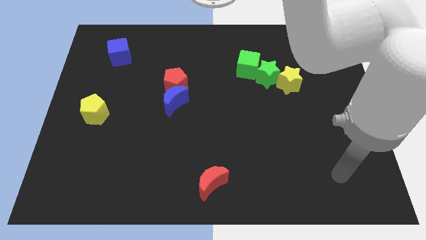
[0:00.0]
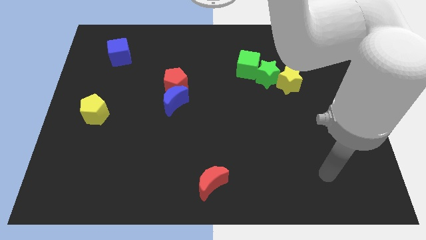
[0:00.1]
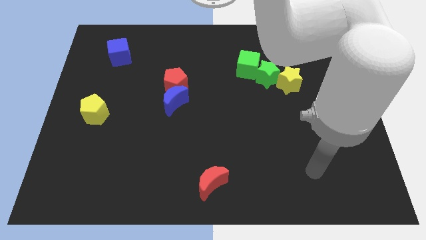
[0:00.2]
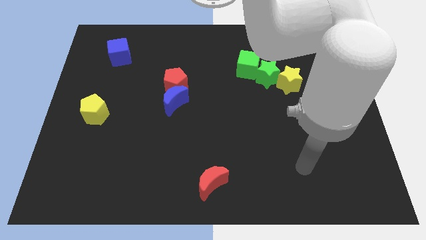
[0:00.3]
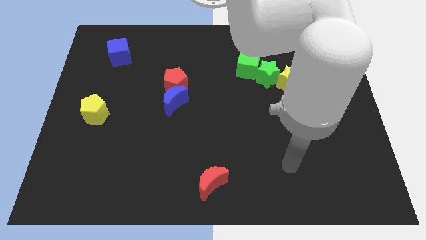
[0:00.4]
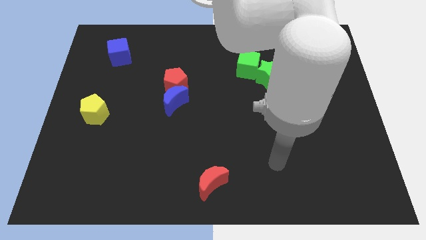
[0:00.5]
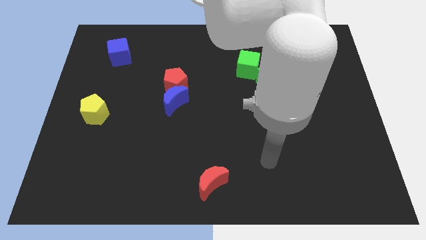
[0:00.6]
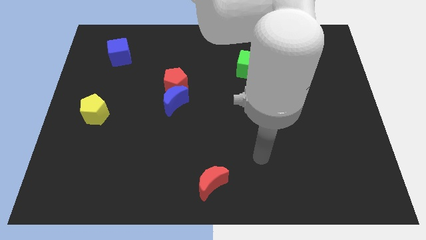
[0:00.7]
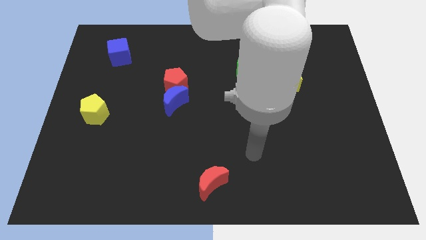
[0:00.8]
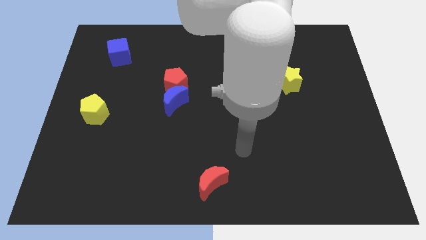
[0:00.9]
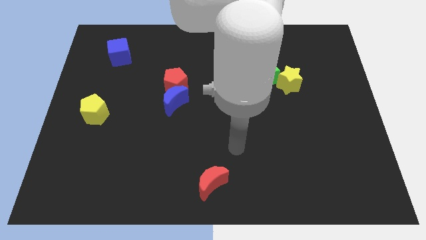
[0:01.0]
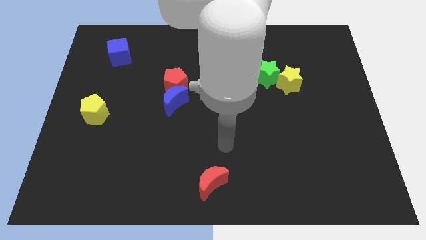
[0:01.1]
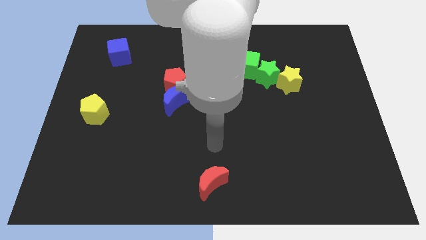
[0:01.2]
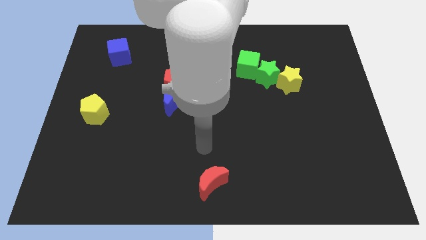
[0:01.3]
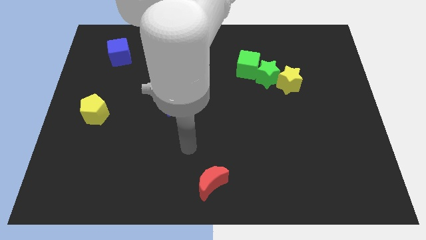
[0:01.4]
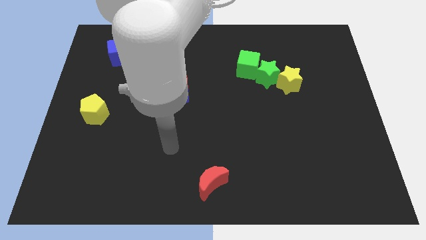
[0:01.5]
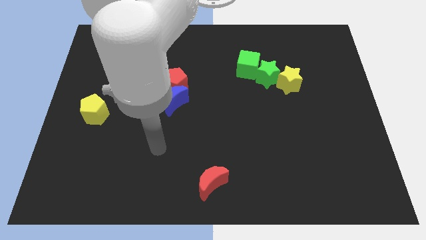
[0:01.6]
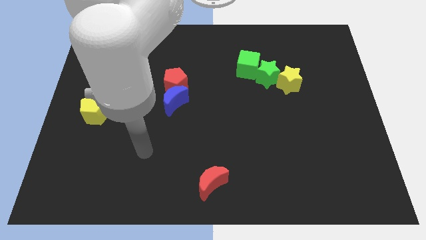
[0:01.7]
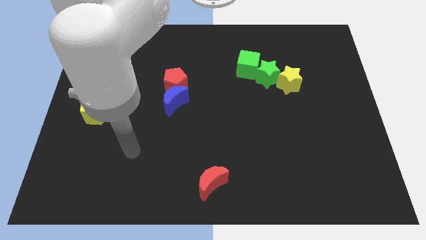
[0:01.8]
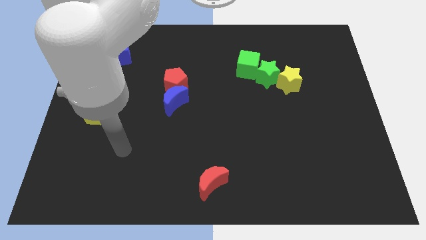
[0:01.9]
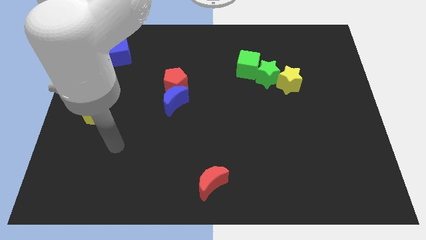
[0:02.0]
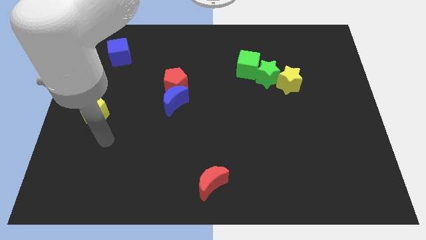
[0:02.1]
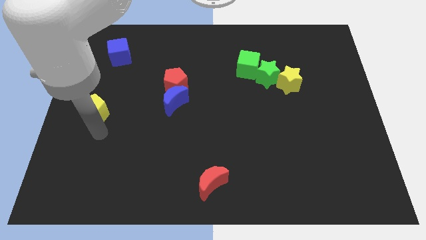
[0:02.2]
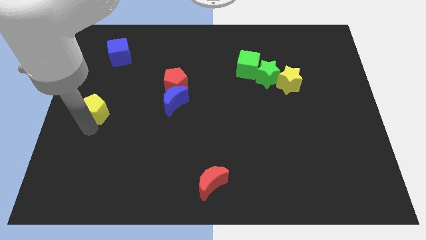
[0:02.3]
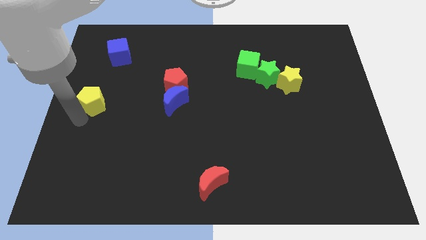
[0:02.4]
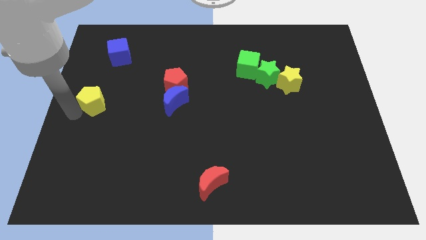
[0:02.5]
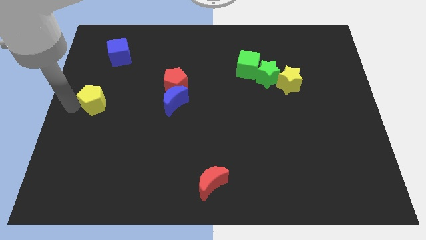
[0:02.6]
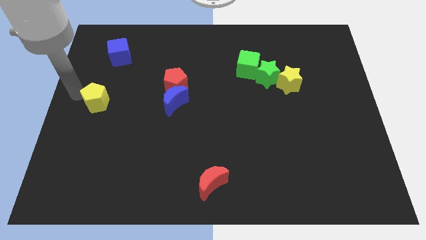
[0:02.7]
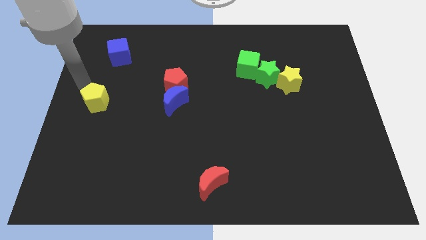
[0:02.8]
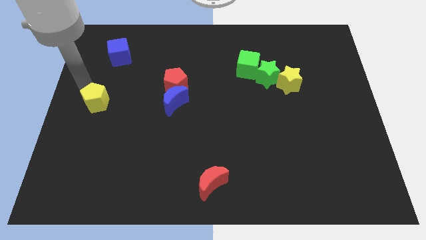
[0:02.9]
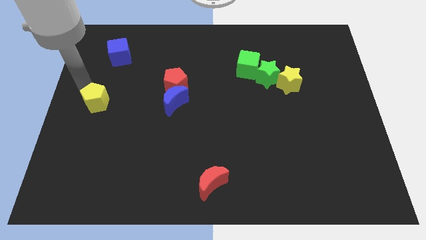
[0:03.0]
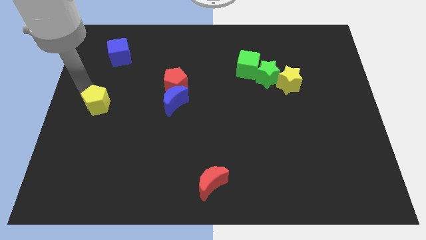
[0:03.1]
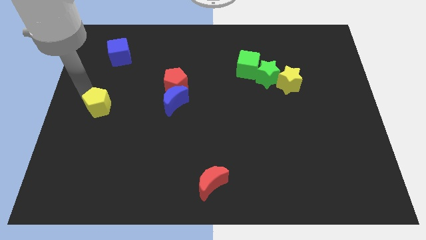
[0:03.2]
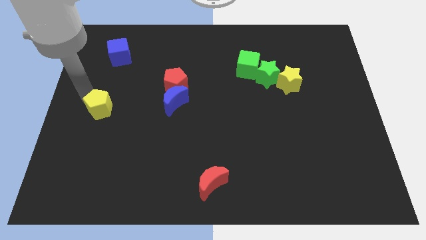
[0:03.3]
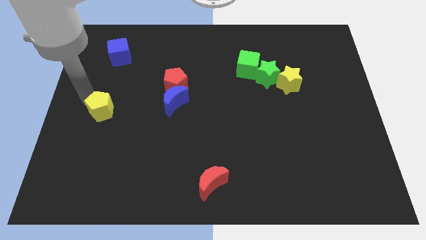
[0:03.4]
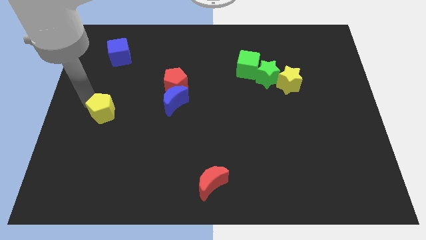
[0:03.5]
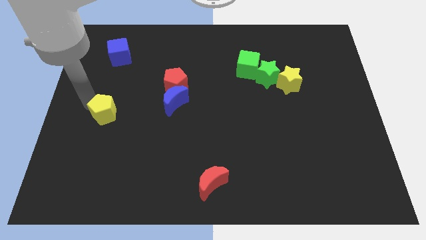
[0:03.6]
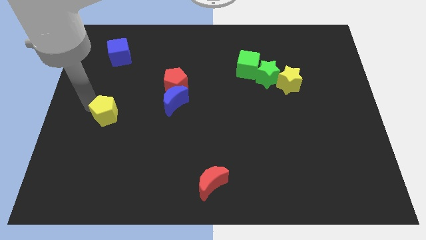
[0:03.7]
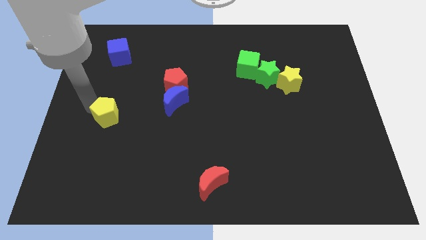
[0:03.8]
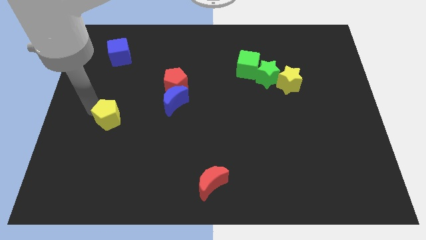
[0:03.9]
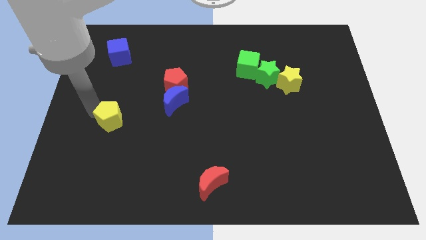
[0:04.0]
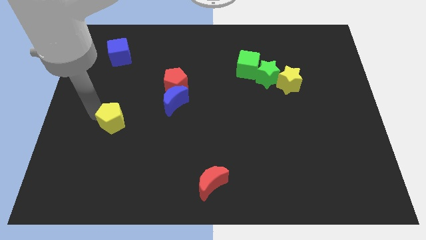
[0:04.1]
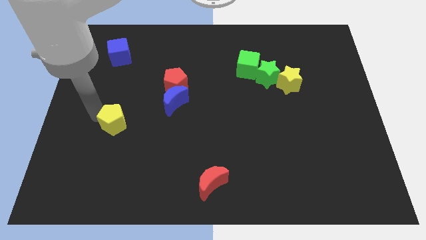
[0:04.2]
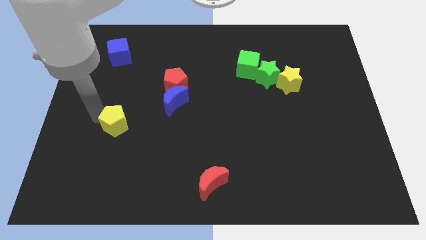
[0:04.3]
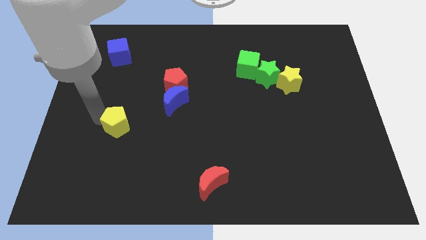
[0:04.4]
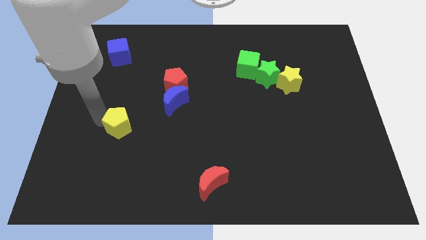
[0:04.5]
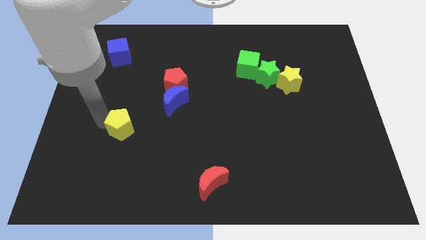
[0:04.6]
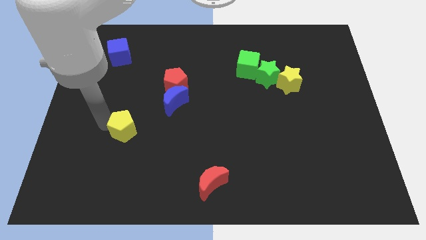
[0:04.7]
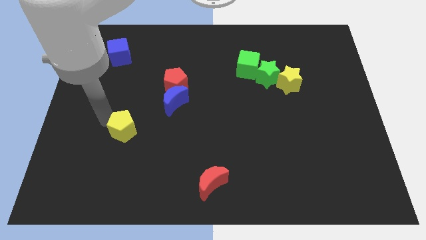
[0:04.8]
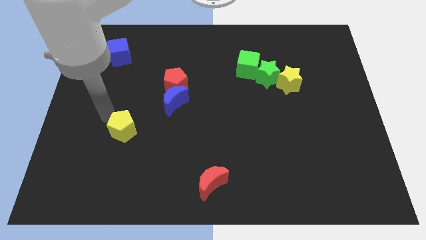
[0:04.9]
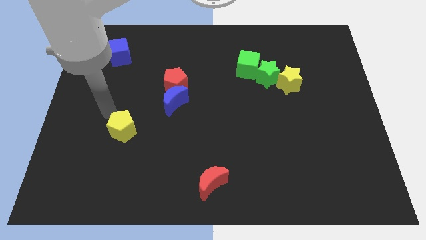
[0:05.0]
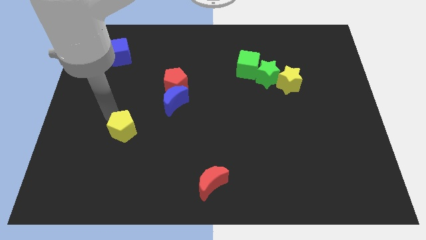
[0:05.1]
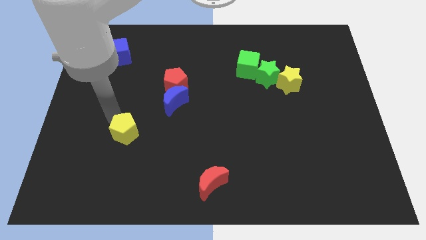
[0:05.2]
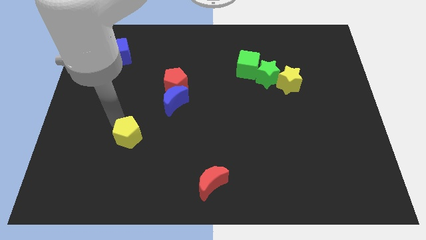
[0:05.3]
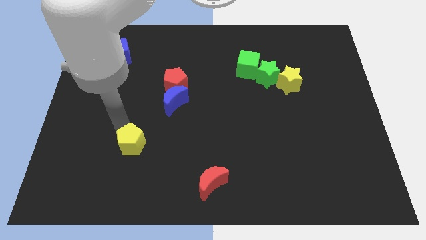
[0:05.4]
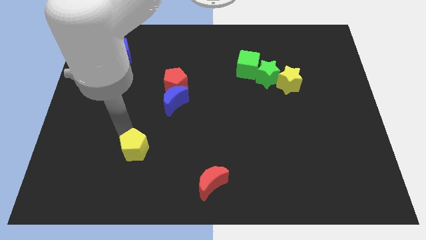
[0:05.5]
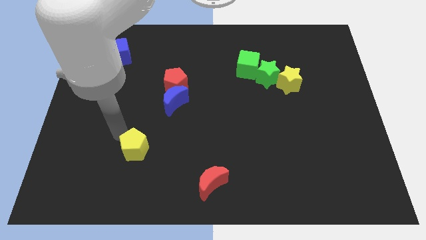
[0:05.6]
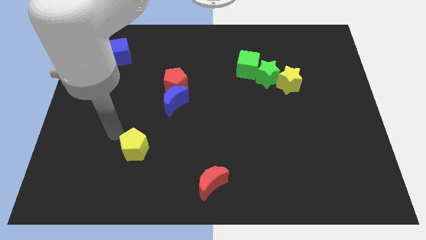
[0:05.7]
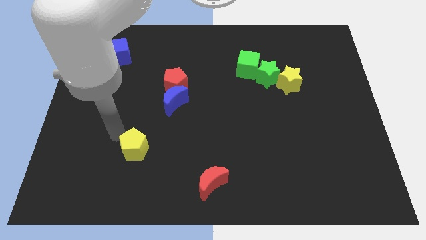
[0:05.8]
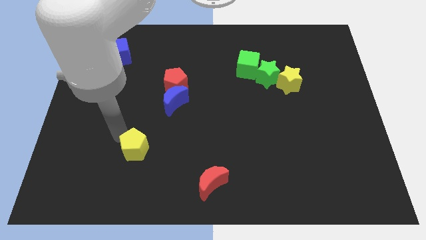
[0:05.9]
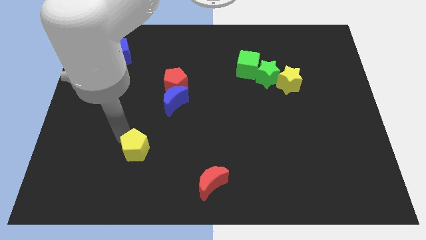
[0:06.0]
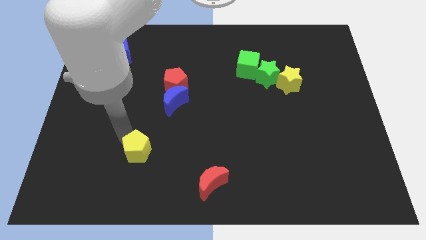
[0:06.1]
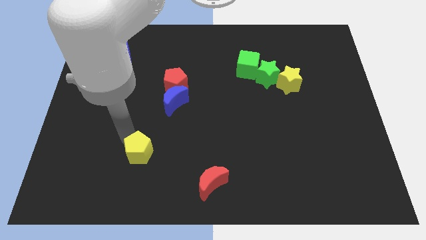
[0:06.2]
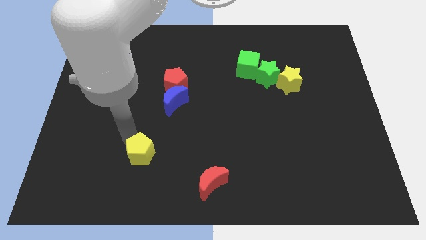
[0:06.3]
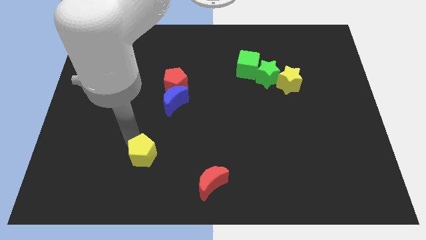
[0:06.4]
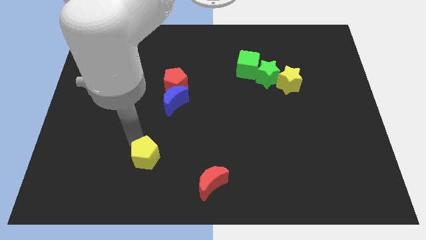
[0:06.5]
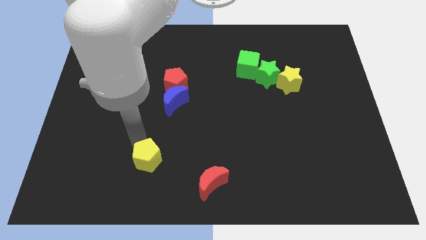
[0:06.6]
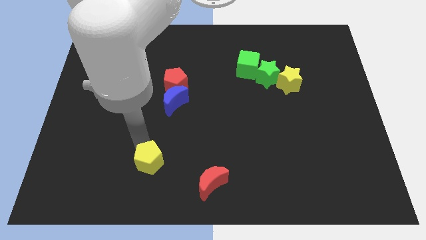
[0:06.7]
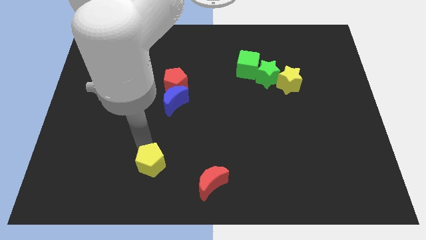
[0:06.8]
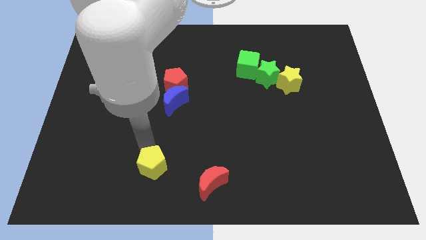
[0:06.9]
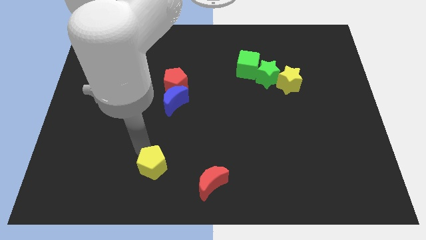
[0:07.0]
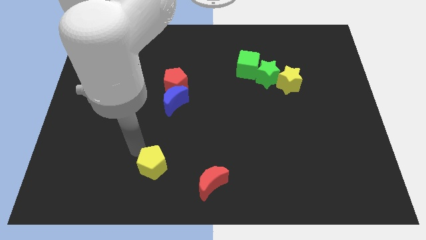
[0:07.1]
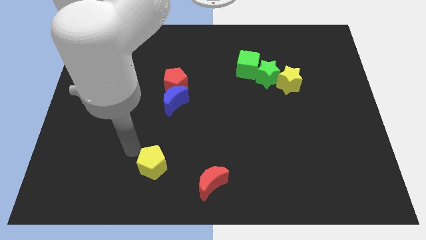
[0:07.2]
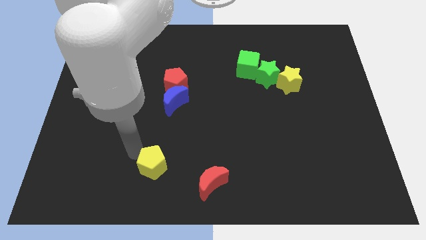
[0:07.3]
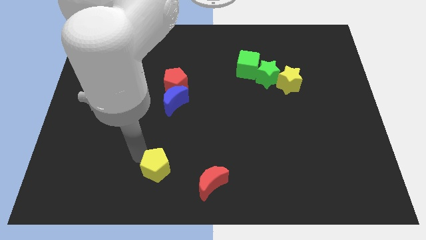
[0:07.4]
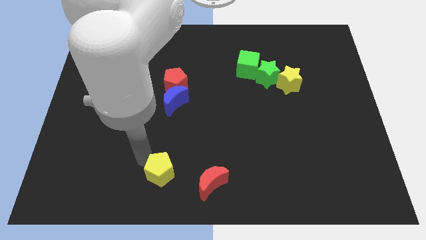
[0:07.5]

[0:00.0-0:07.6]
push the yellow pentagon to the bottom

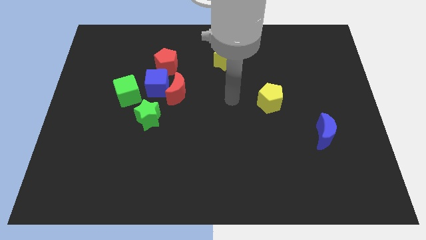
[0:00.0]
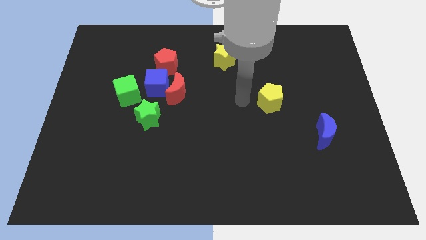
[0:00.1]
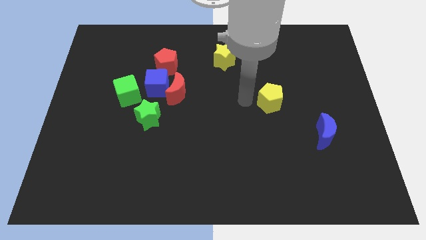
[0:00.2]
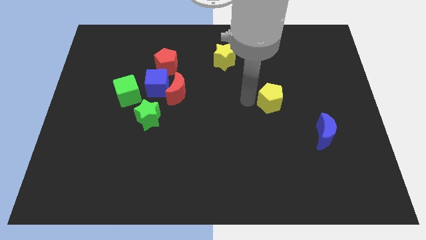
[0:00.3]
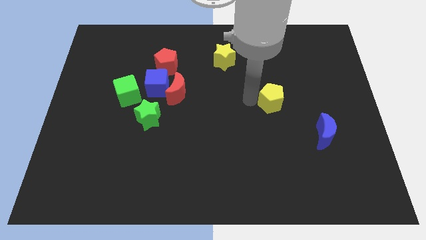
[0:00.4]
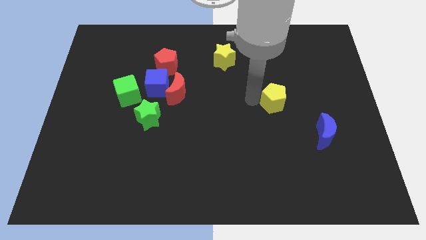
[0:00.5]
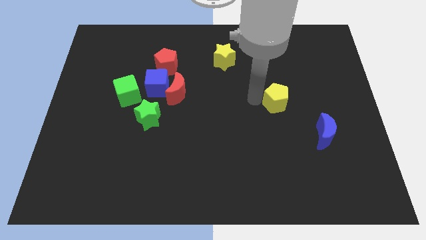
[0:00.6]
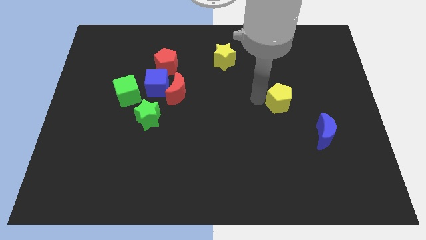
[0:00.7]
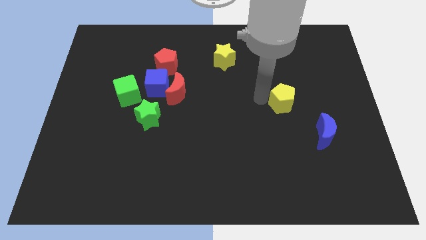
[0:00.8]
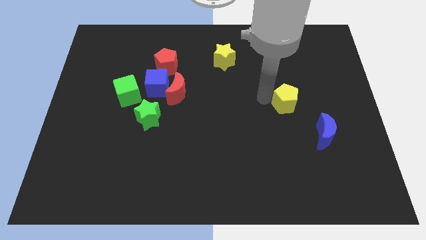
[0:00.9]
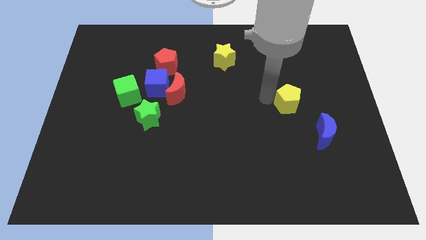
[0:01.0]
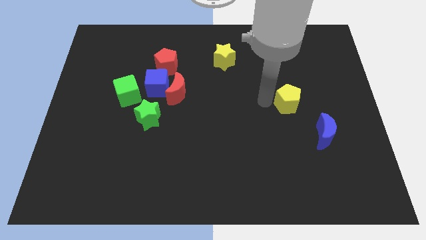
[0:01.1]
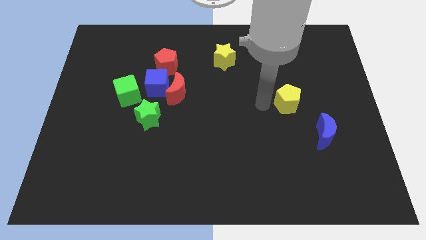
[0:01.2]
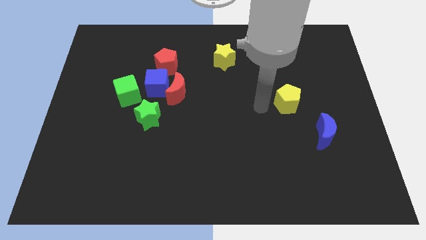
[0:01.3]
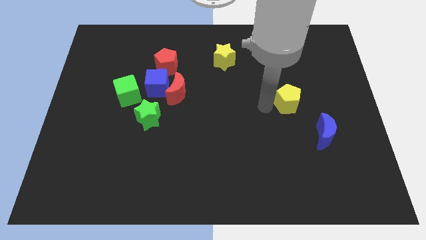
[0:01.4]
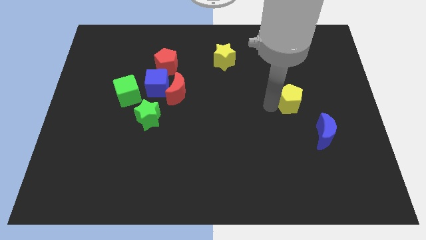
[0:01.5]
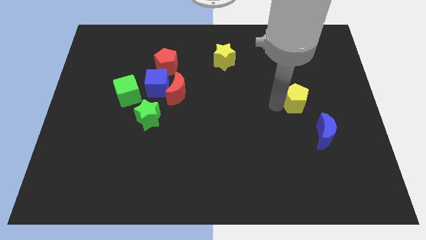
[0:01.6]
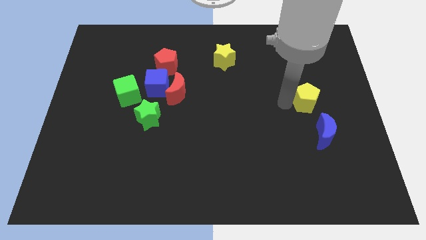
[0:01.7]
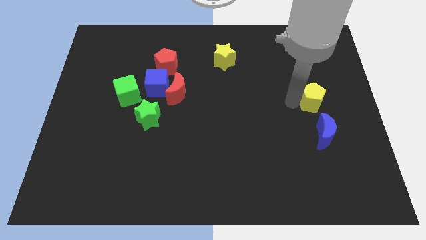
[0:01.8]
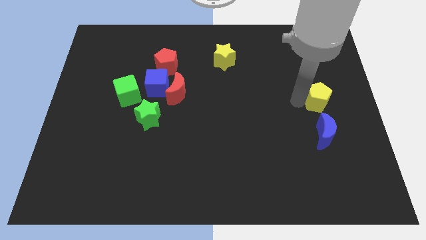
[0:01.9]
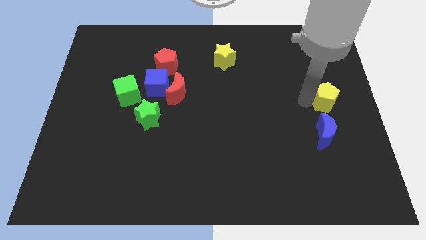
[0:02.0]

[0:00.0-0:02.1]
put the yellow pentagon to the center right
